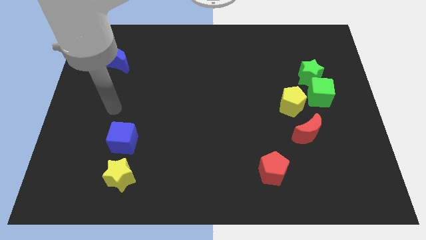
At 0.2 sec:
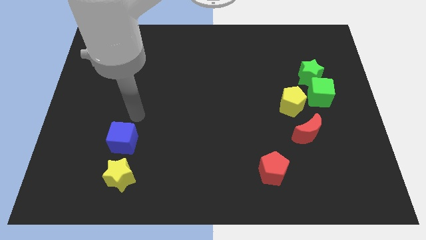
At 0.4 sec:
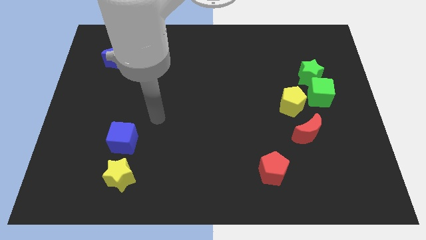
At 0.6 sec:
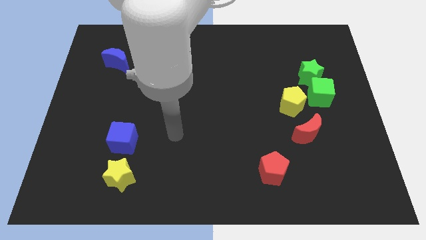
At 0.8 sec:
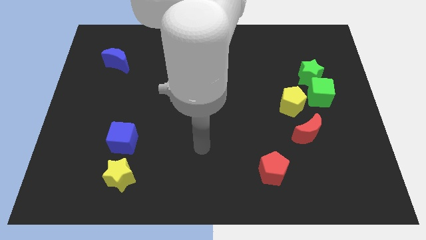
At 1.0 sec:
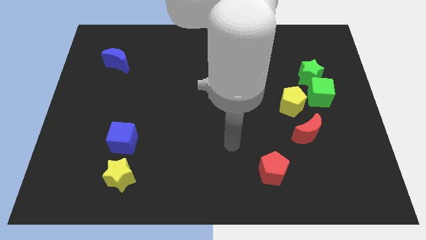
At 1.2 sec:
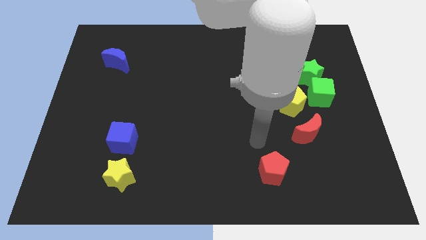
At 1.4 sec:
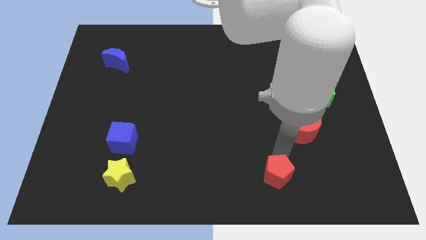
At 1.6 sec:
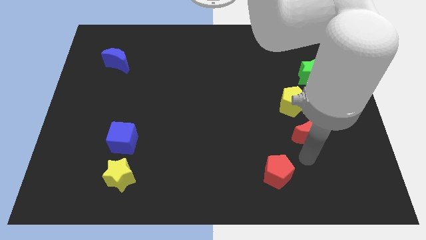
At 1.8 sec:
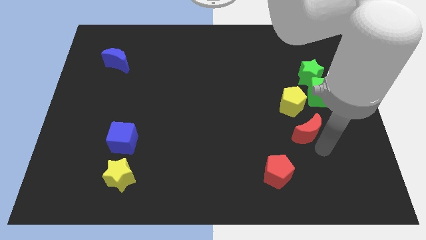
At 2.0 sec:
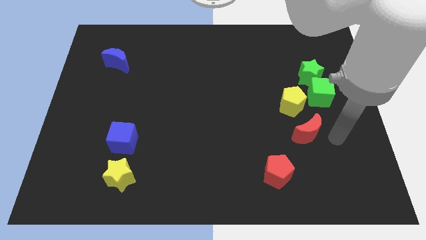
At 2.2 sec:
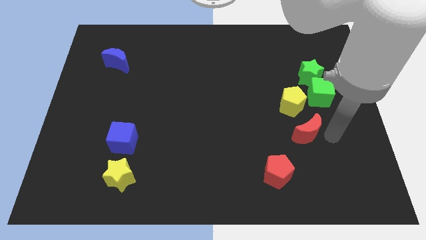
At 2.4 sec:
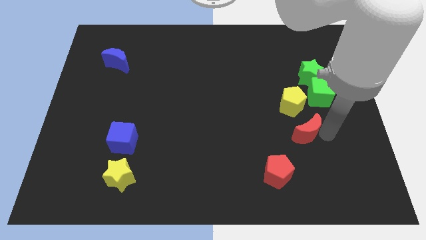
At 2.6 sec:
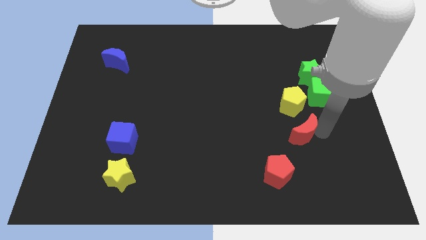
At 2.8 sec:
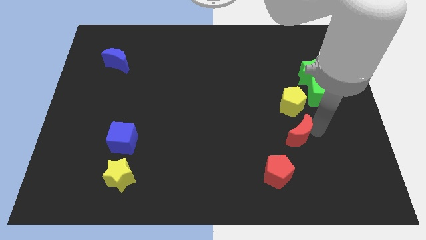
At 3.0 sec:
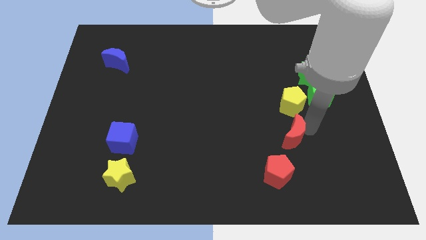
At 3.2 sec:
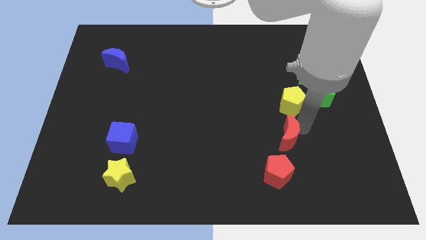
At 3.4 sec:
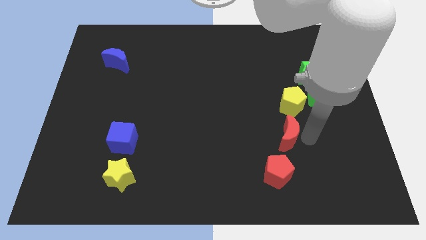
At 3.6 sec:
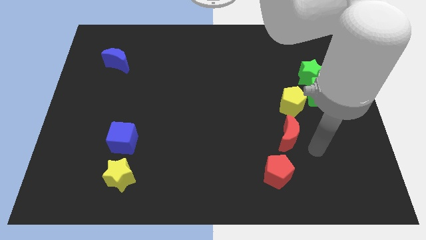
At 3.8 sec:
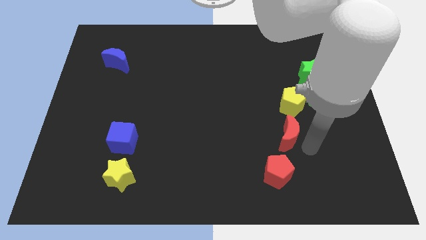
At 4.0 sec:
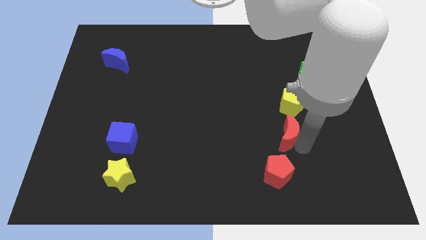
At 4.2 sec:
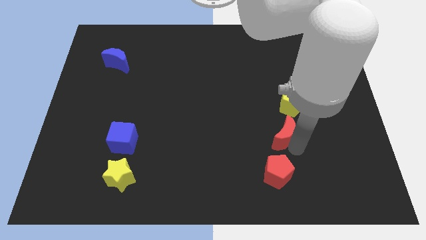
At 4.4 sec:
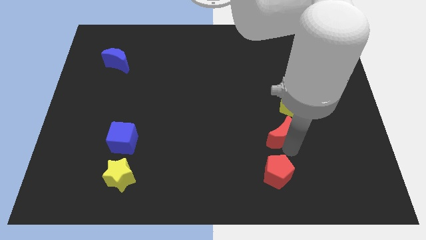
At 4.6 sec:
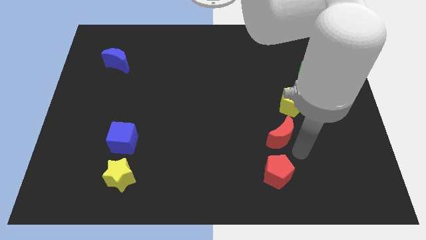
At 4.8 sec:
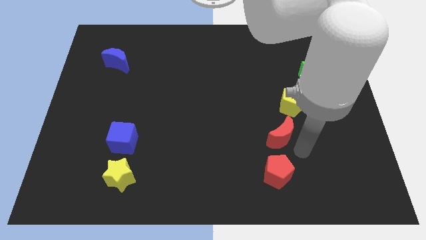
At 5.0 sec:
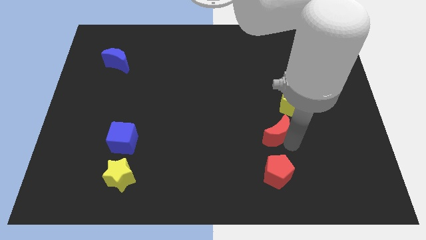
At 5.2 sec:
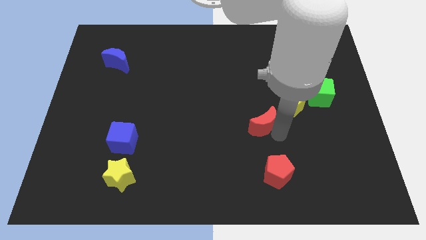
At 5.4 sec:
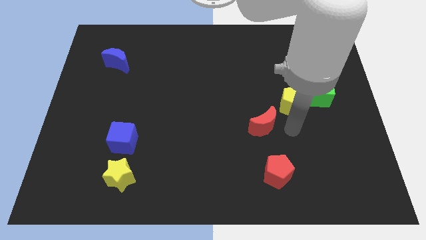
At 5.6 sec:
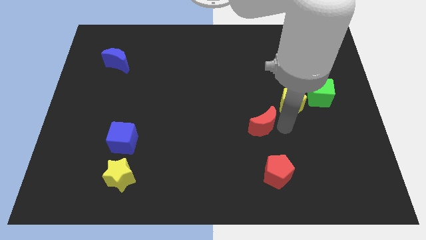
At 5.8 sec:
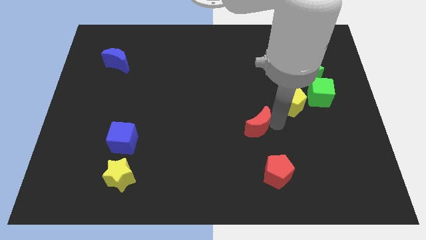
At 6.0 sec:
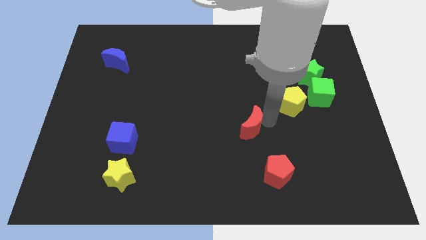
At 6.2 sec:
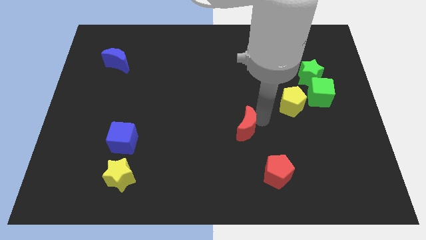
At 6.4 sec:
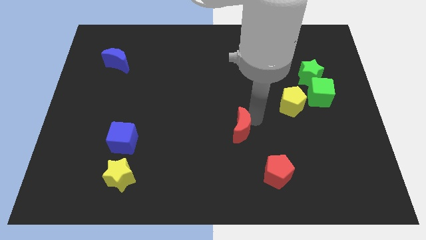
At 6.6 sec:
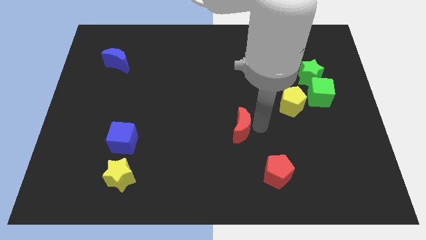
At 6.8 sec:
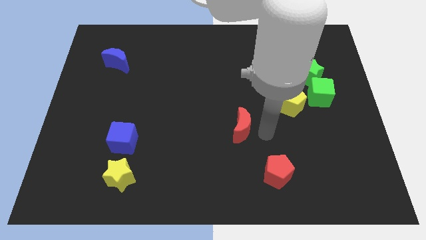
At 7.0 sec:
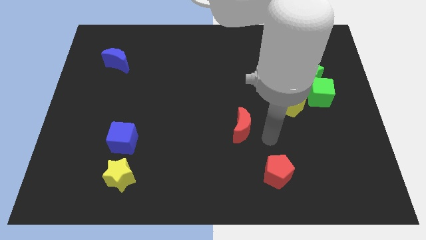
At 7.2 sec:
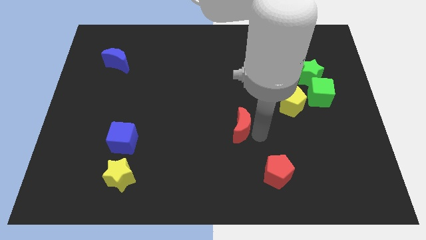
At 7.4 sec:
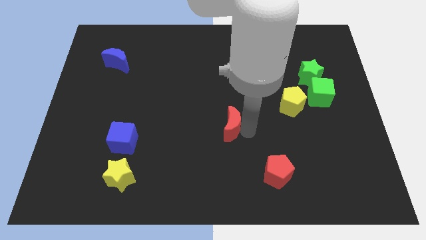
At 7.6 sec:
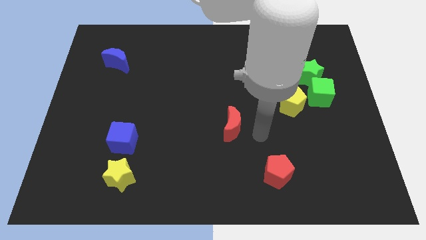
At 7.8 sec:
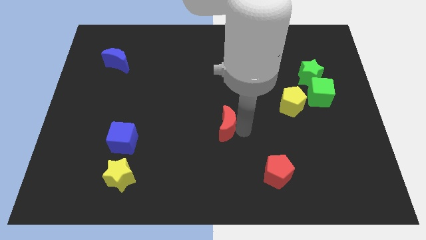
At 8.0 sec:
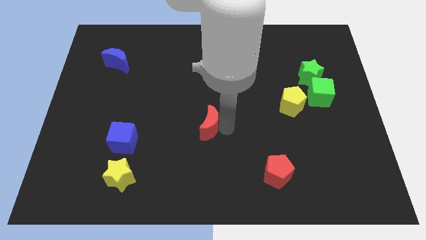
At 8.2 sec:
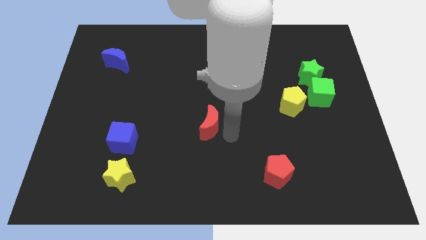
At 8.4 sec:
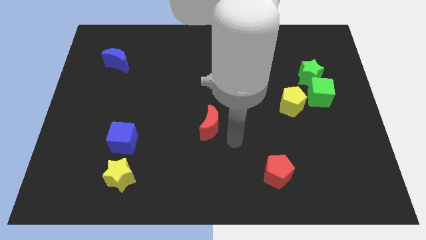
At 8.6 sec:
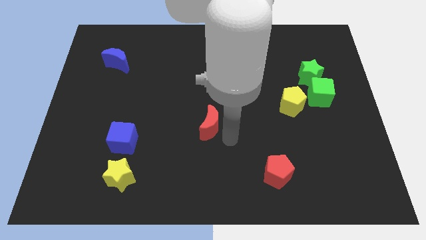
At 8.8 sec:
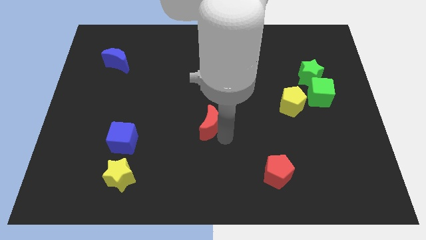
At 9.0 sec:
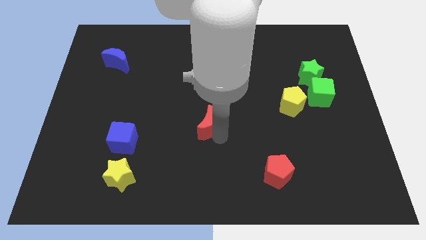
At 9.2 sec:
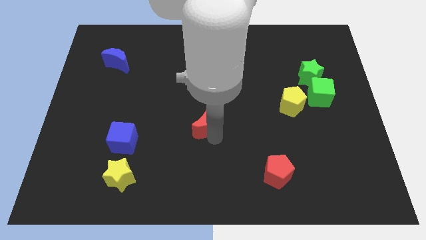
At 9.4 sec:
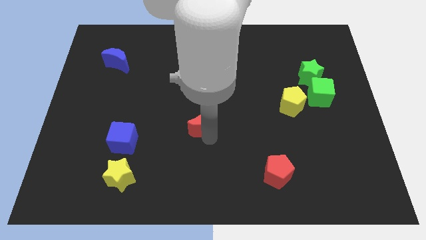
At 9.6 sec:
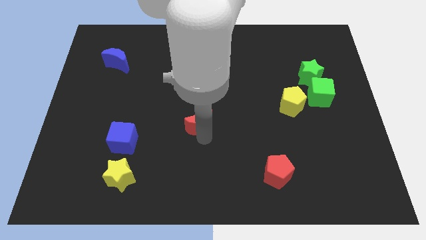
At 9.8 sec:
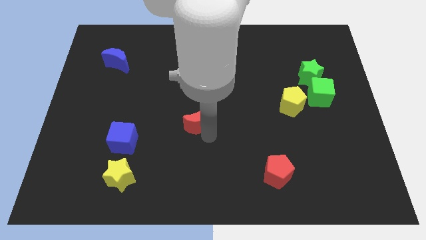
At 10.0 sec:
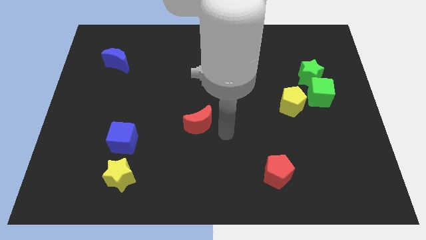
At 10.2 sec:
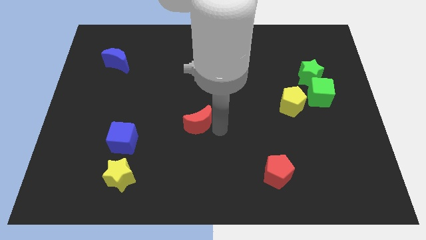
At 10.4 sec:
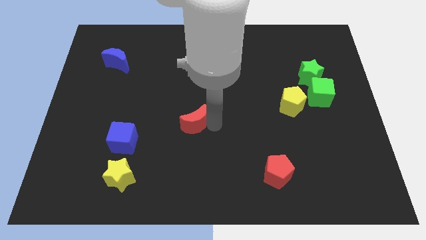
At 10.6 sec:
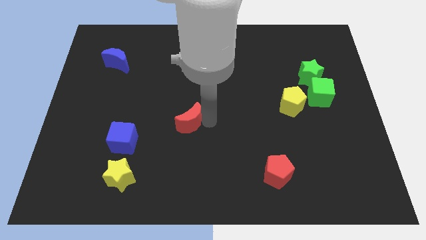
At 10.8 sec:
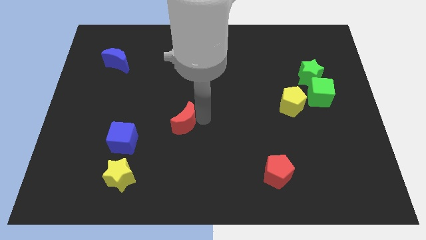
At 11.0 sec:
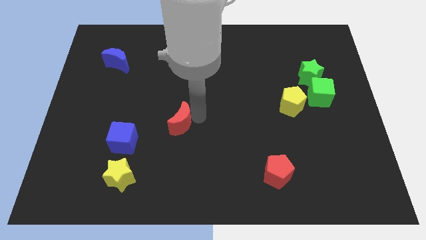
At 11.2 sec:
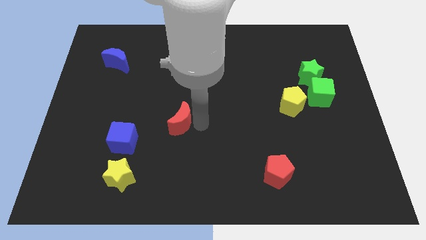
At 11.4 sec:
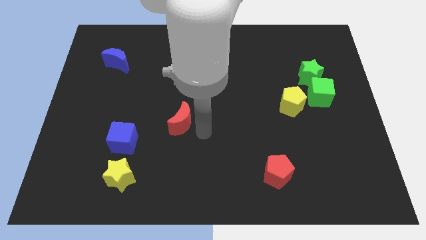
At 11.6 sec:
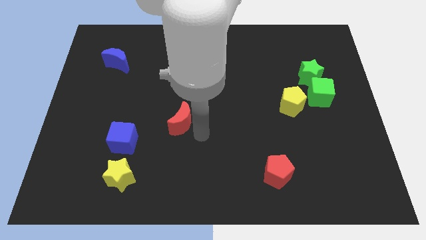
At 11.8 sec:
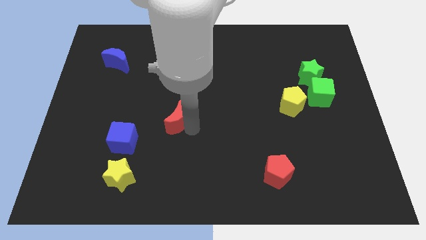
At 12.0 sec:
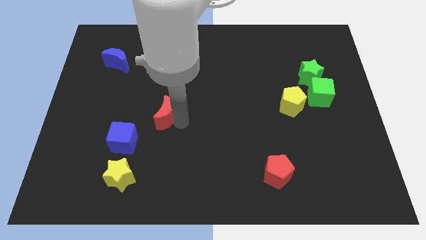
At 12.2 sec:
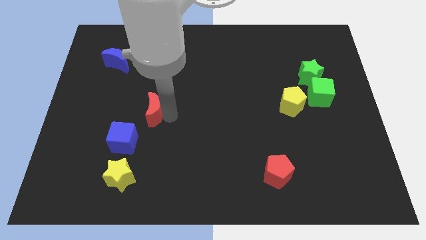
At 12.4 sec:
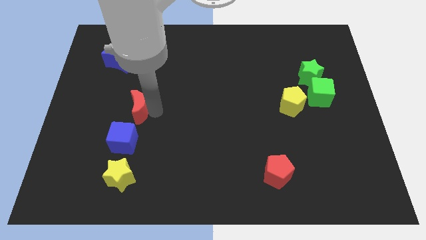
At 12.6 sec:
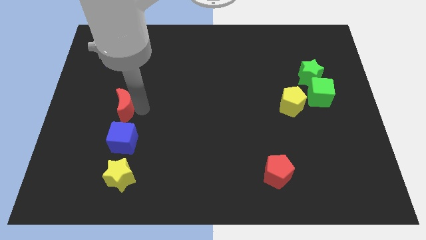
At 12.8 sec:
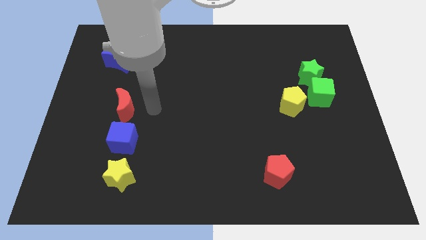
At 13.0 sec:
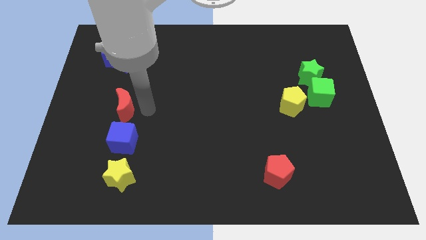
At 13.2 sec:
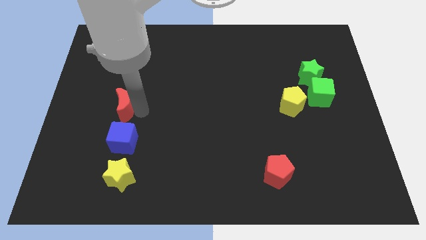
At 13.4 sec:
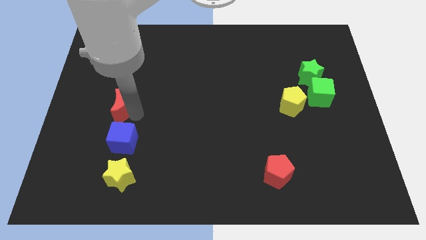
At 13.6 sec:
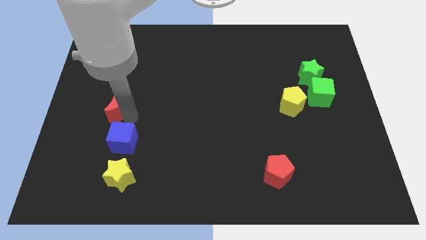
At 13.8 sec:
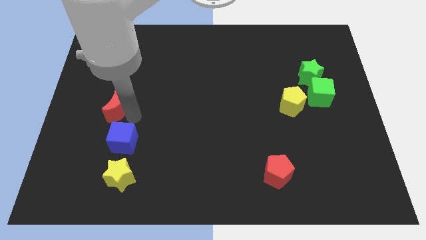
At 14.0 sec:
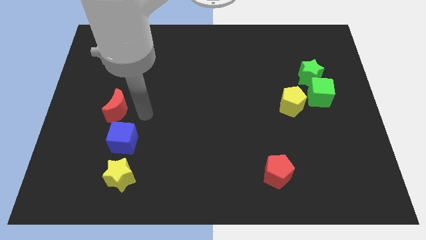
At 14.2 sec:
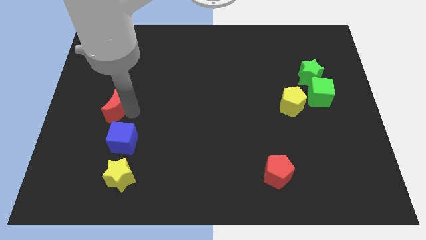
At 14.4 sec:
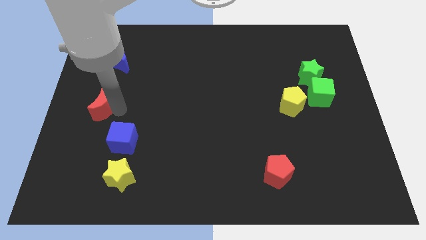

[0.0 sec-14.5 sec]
slide the red moon to the left side of the board
